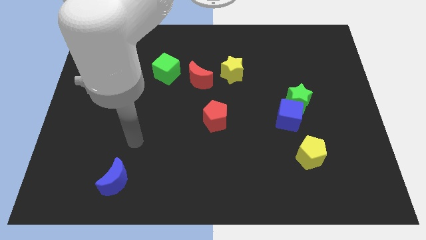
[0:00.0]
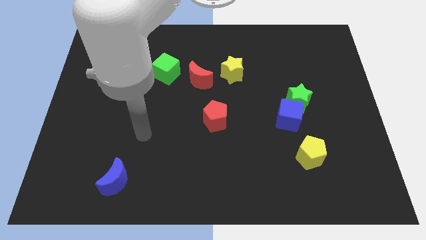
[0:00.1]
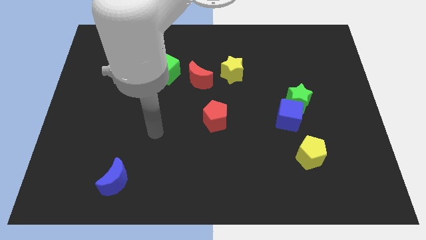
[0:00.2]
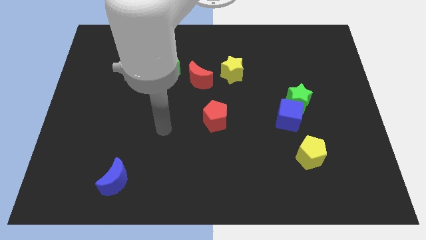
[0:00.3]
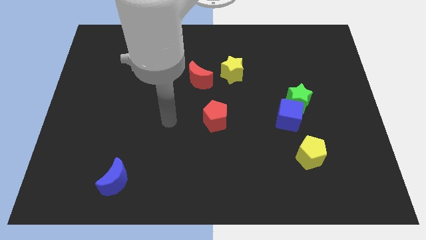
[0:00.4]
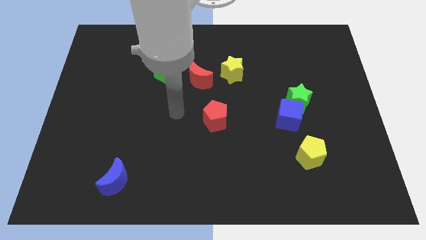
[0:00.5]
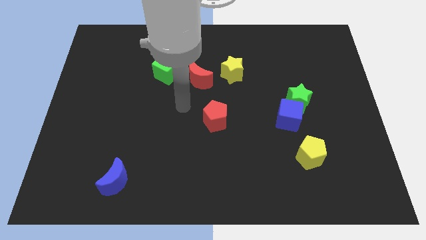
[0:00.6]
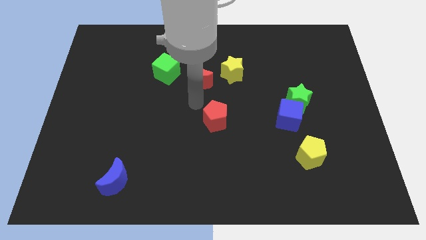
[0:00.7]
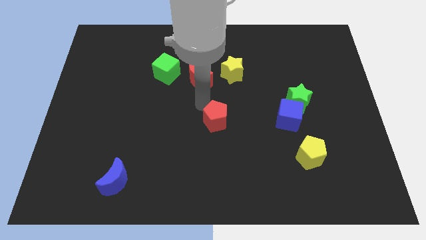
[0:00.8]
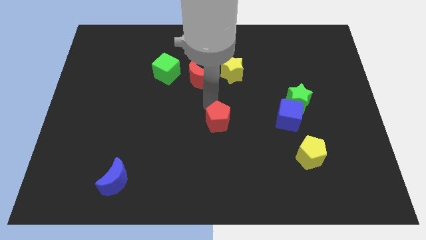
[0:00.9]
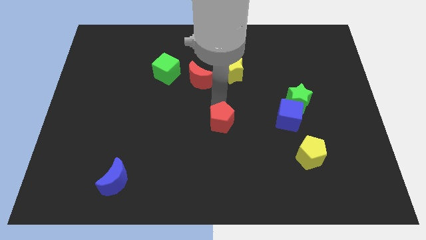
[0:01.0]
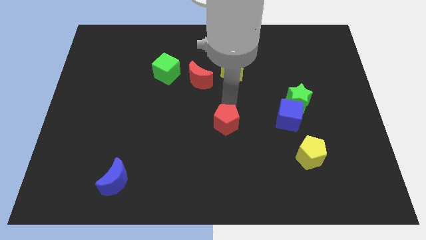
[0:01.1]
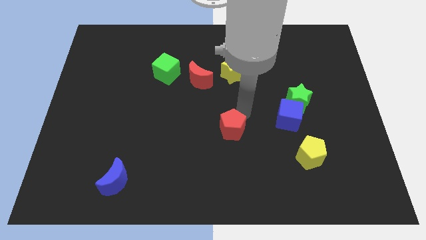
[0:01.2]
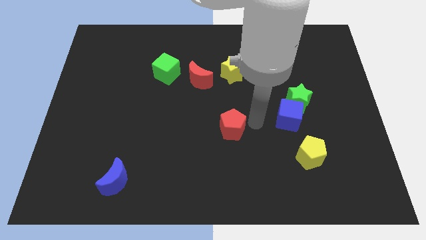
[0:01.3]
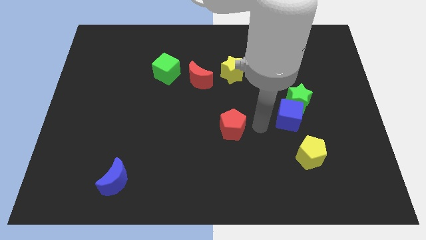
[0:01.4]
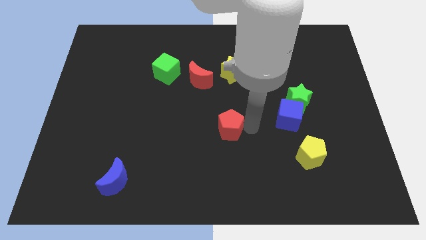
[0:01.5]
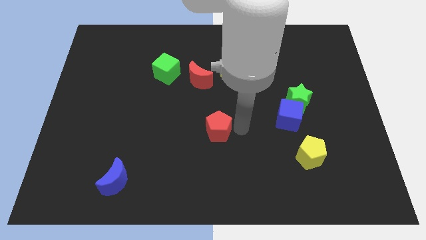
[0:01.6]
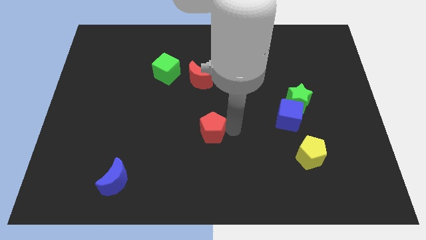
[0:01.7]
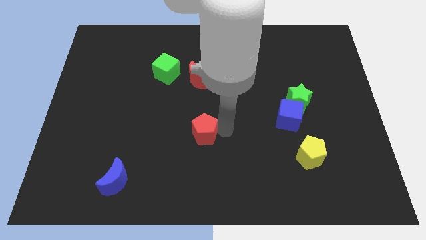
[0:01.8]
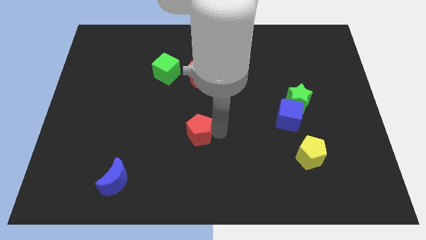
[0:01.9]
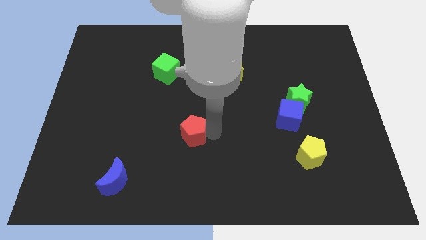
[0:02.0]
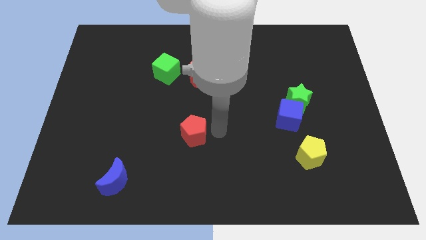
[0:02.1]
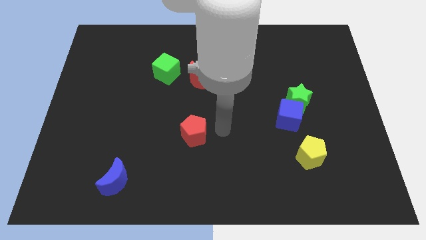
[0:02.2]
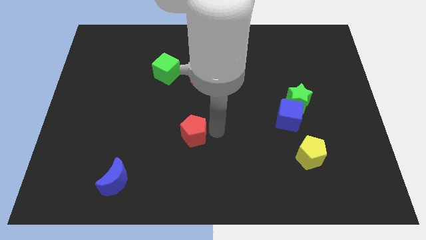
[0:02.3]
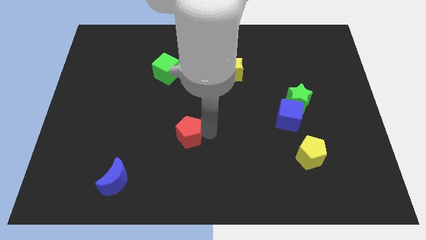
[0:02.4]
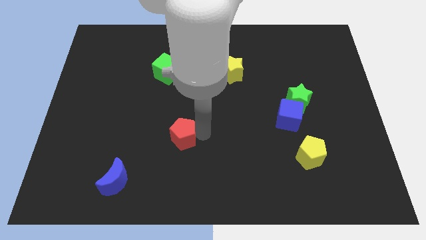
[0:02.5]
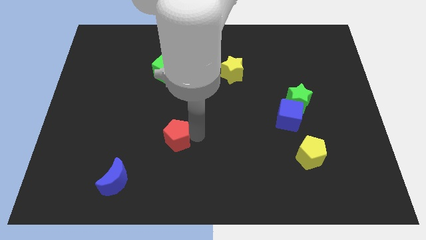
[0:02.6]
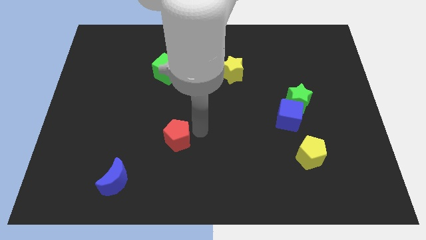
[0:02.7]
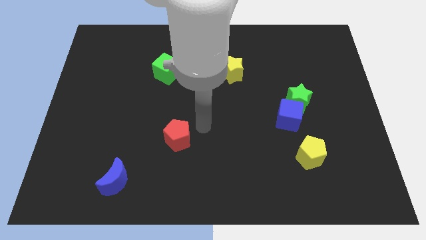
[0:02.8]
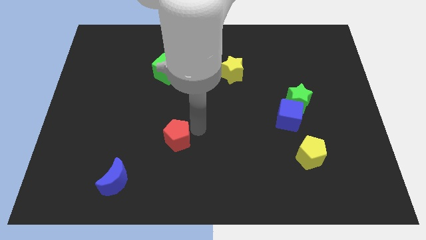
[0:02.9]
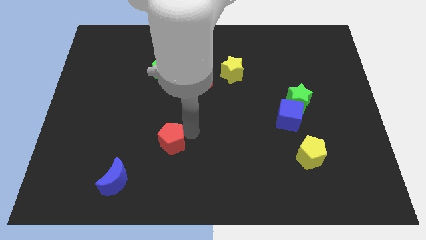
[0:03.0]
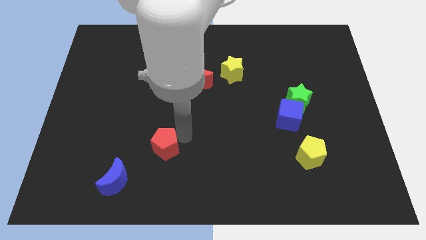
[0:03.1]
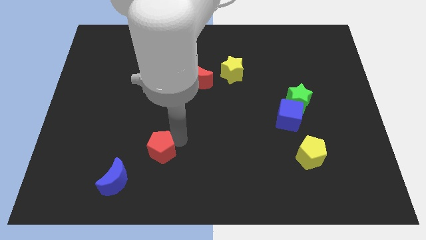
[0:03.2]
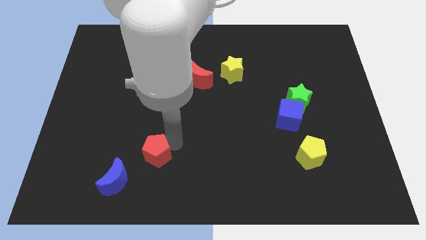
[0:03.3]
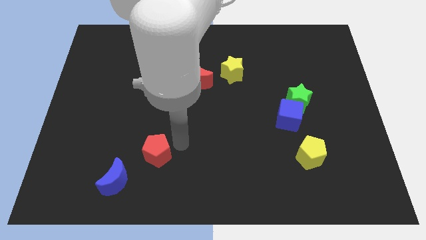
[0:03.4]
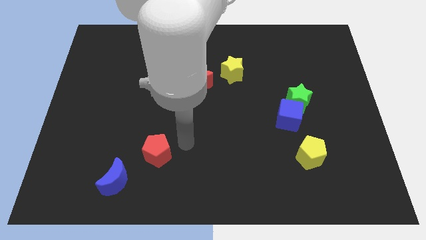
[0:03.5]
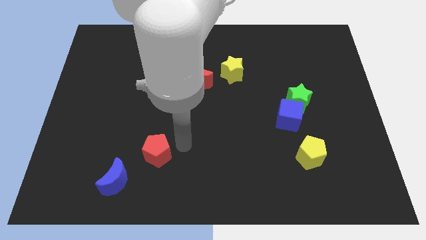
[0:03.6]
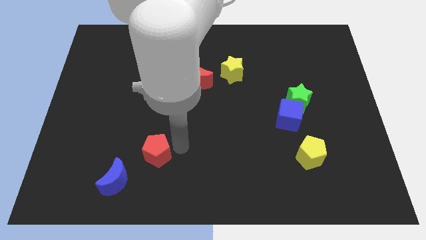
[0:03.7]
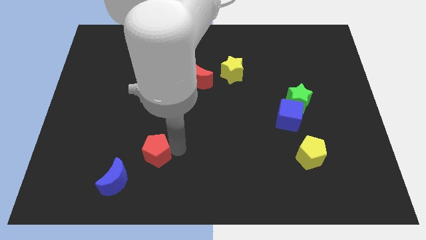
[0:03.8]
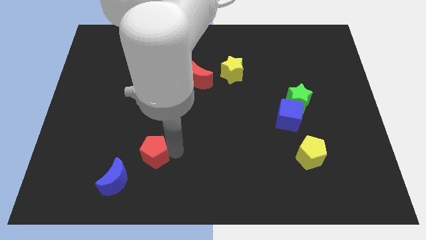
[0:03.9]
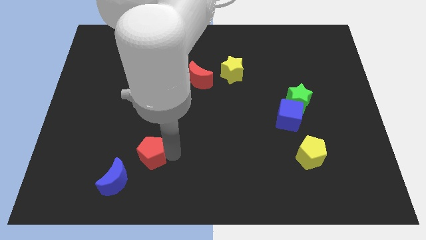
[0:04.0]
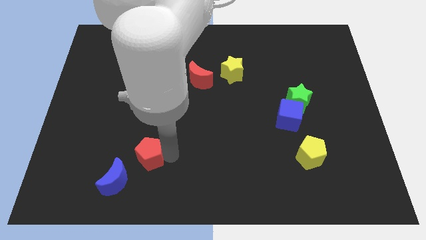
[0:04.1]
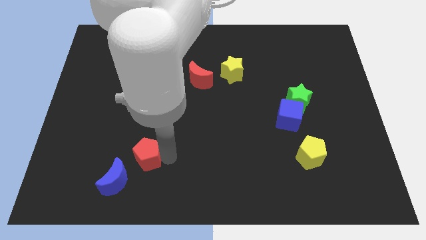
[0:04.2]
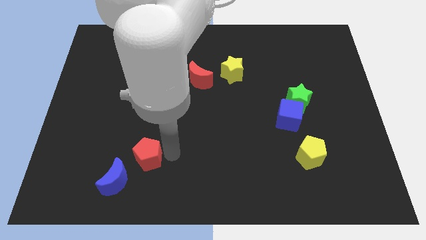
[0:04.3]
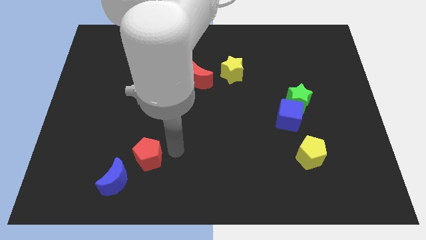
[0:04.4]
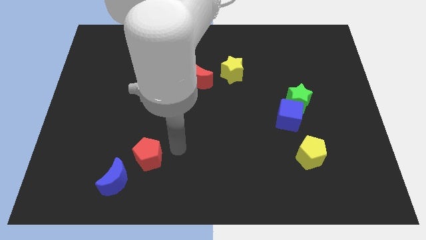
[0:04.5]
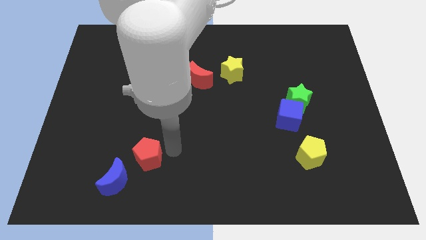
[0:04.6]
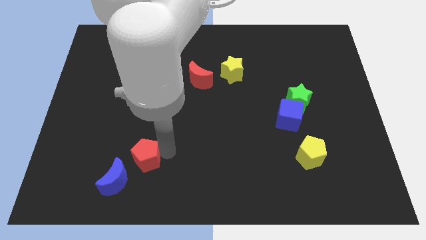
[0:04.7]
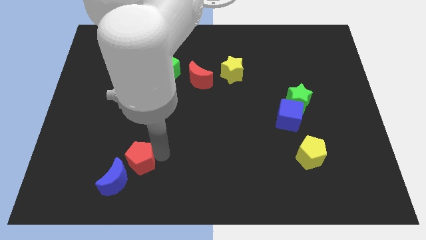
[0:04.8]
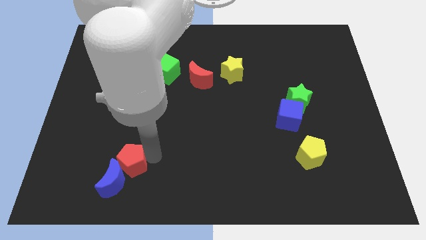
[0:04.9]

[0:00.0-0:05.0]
put the red pentagon to the blue moon

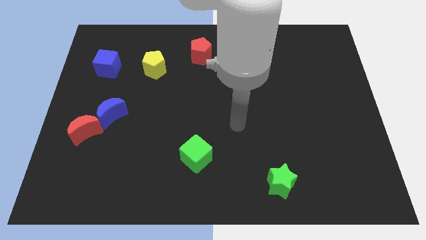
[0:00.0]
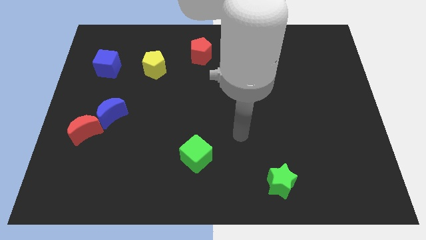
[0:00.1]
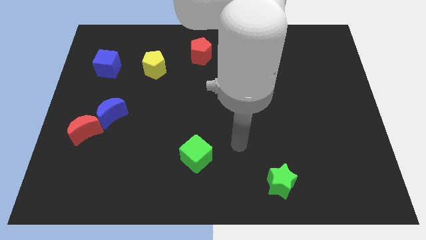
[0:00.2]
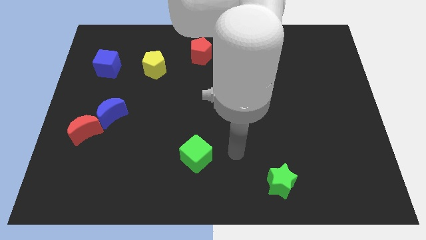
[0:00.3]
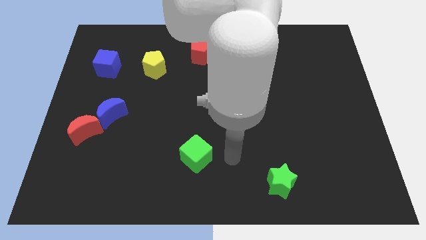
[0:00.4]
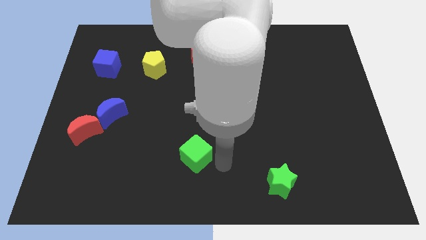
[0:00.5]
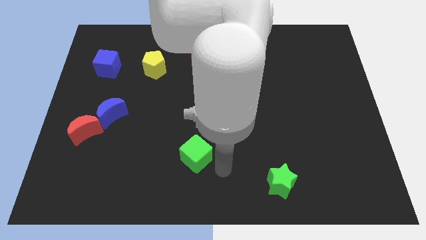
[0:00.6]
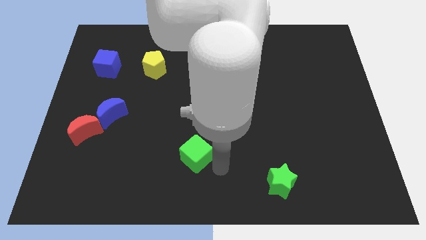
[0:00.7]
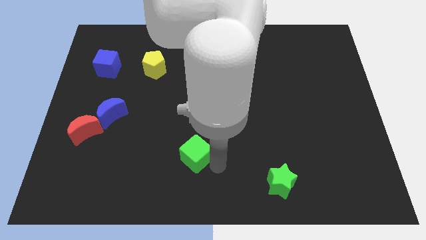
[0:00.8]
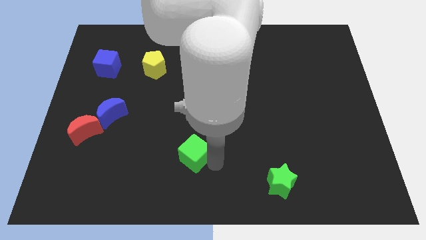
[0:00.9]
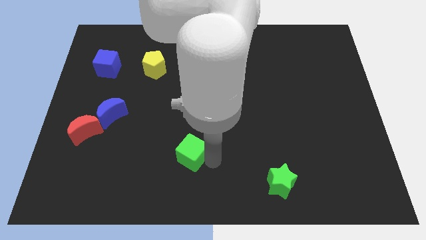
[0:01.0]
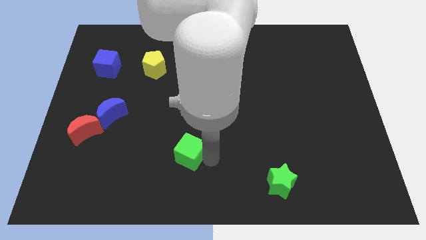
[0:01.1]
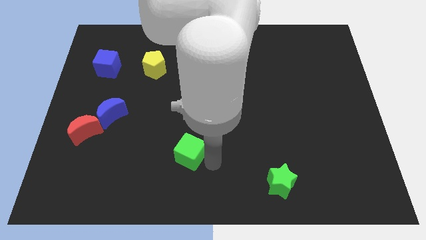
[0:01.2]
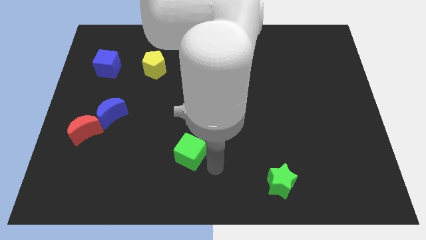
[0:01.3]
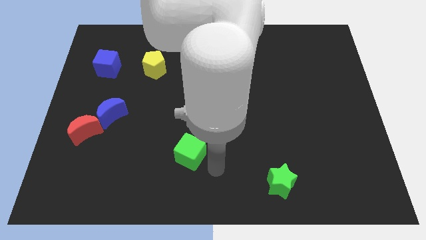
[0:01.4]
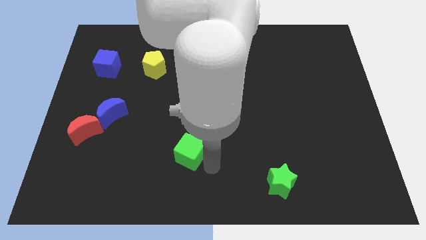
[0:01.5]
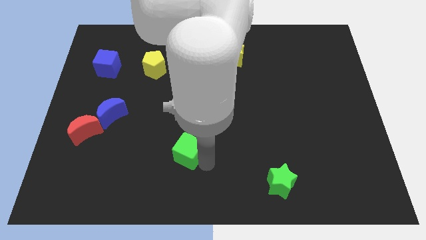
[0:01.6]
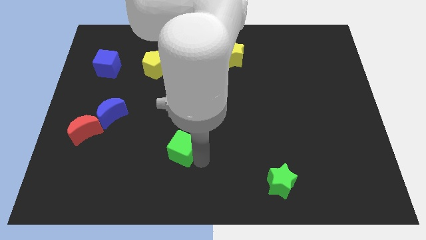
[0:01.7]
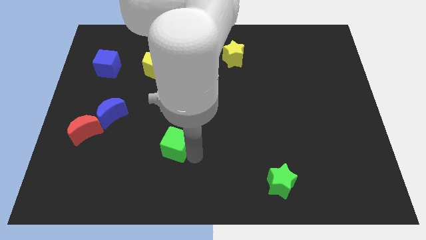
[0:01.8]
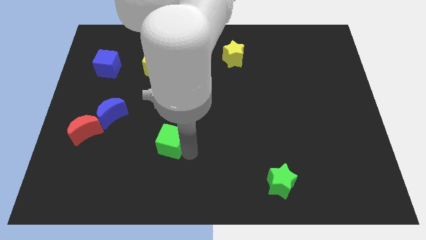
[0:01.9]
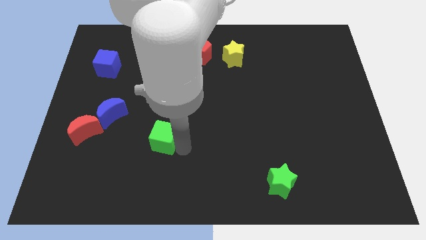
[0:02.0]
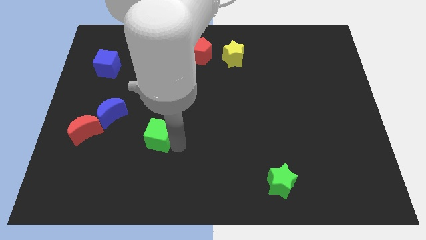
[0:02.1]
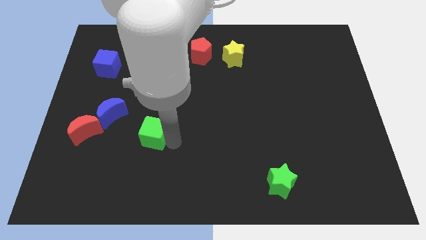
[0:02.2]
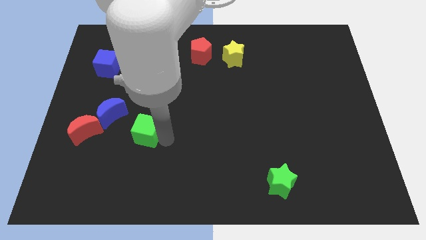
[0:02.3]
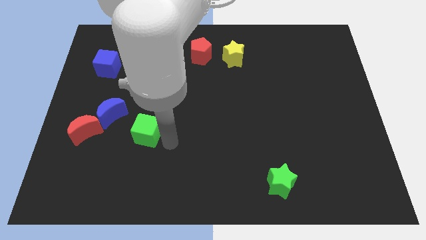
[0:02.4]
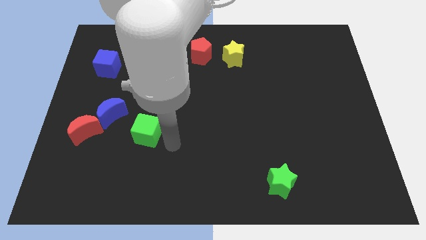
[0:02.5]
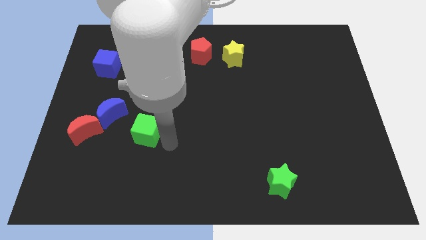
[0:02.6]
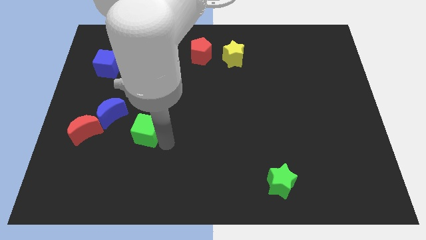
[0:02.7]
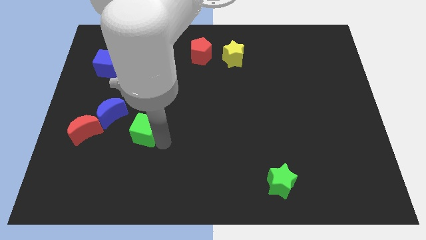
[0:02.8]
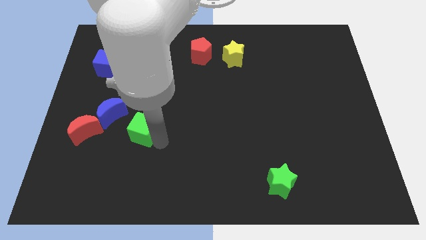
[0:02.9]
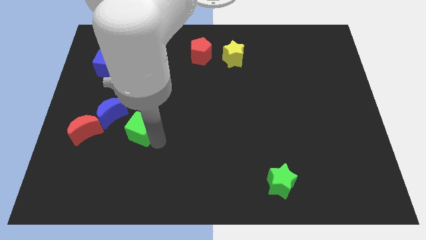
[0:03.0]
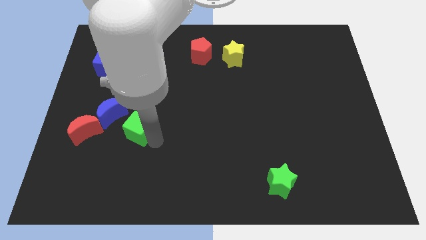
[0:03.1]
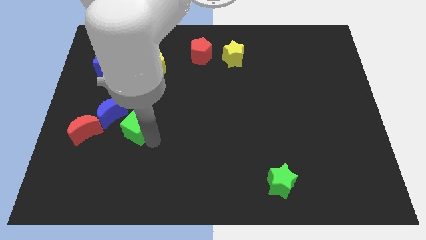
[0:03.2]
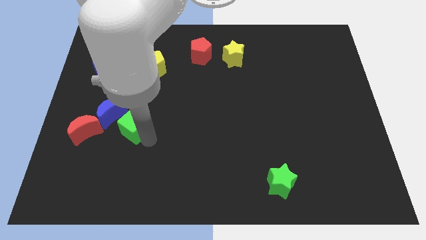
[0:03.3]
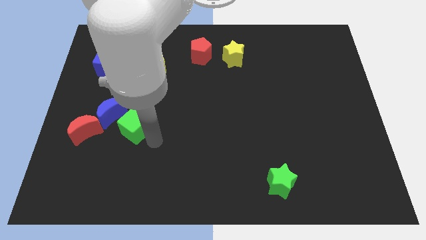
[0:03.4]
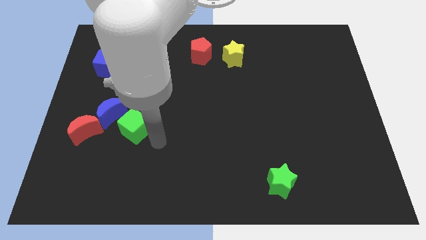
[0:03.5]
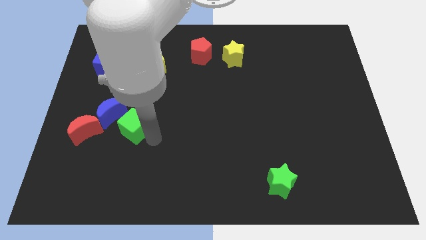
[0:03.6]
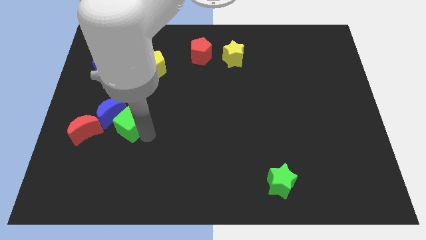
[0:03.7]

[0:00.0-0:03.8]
move the green cube next to the blue moon
